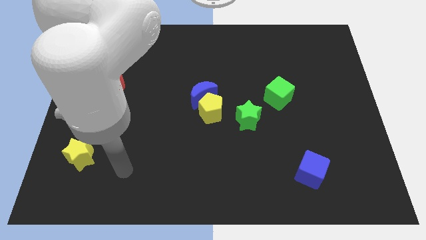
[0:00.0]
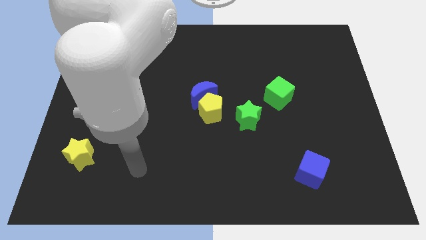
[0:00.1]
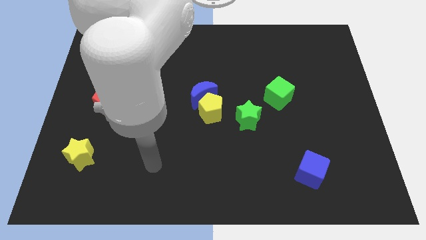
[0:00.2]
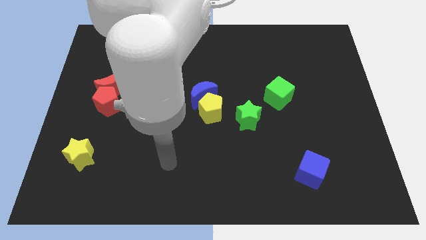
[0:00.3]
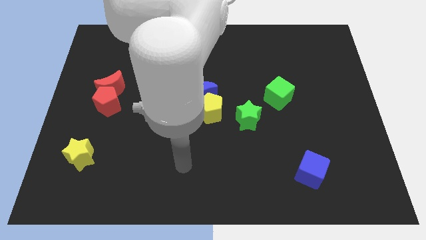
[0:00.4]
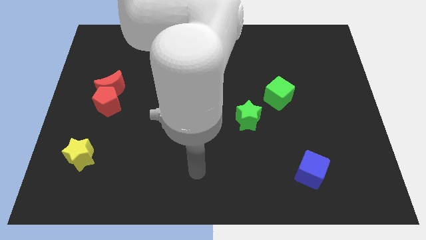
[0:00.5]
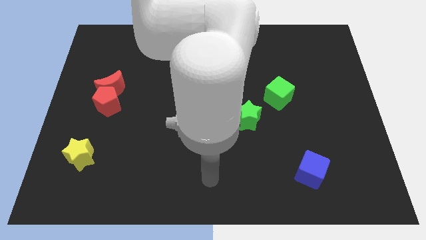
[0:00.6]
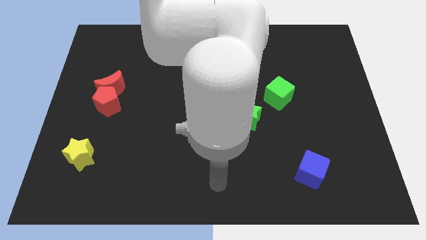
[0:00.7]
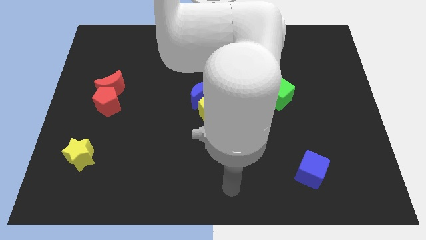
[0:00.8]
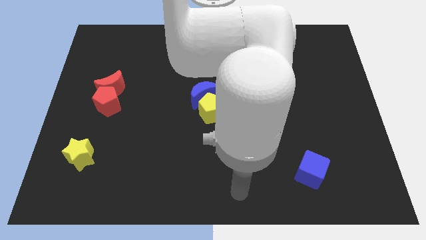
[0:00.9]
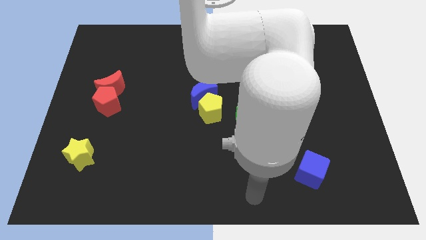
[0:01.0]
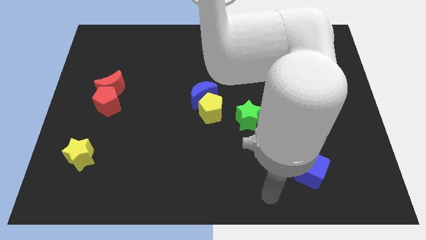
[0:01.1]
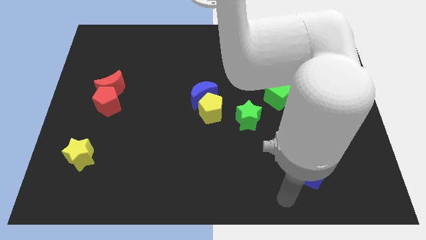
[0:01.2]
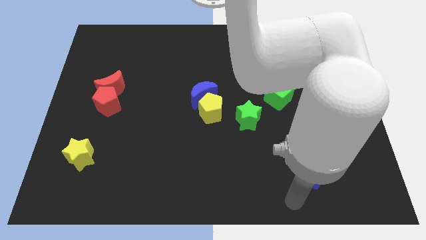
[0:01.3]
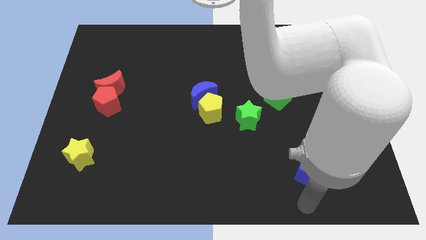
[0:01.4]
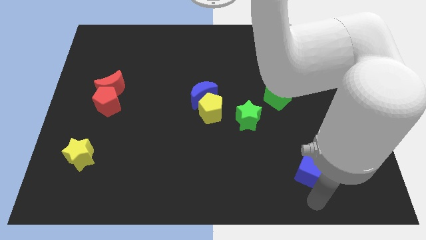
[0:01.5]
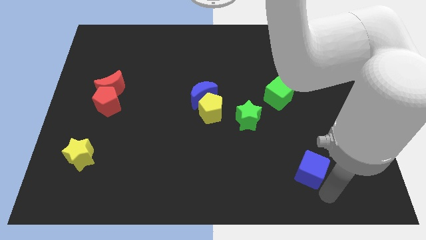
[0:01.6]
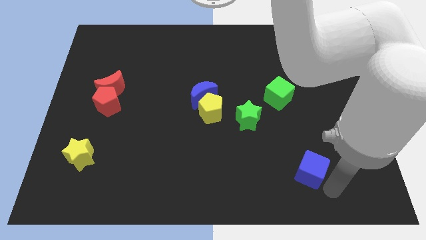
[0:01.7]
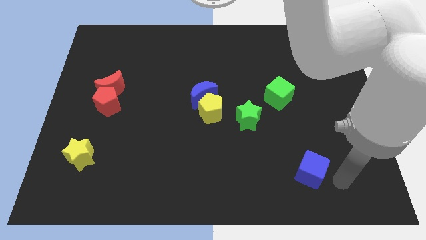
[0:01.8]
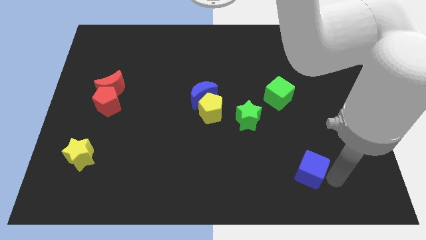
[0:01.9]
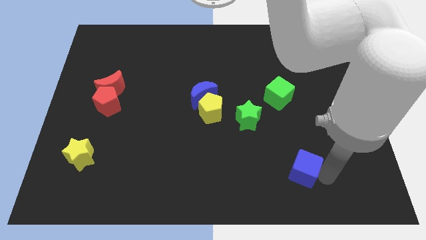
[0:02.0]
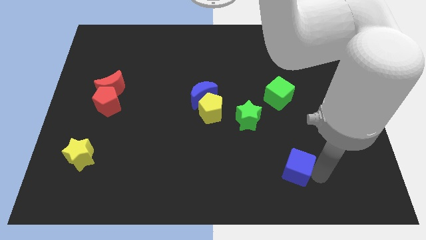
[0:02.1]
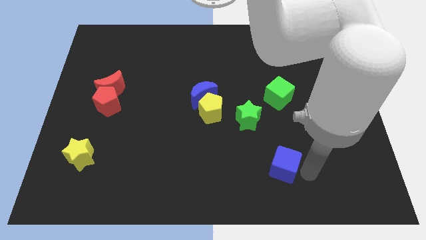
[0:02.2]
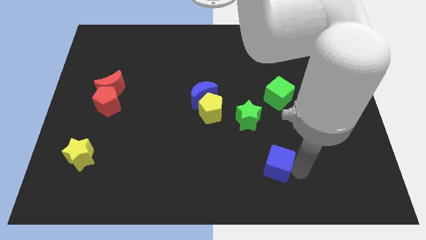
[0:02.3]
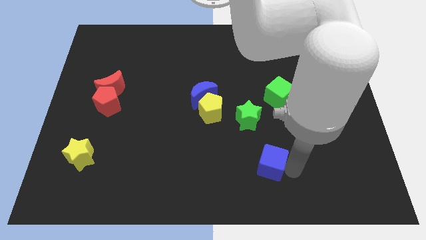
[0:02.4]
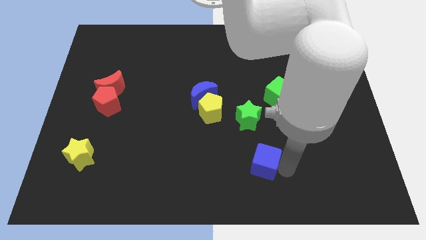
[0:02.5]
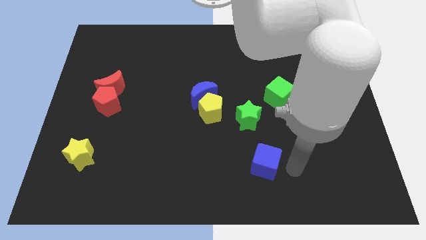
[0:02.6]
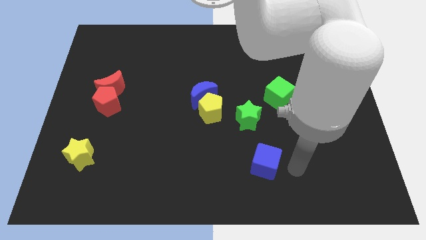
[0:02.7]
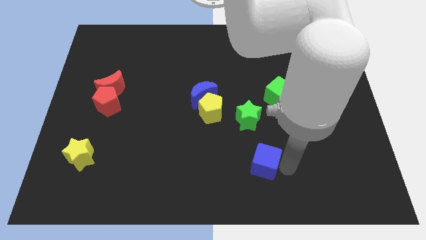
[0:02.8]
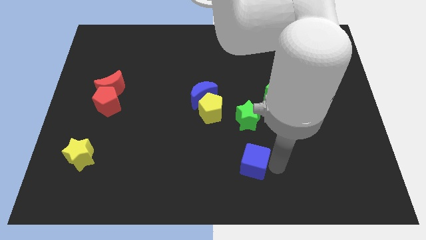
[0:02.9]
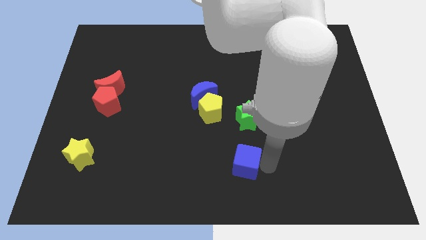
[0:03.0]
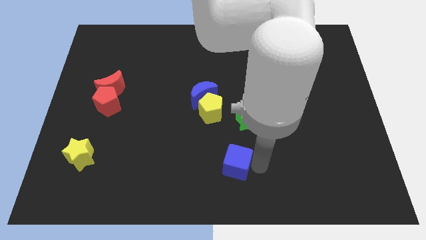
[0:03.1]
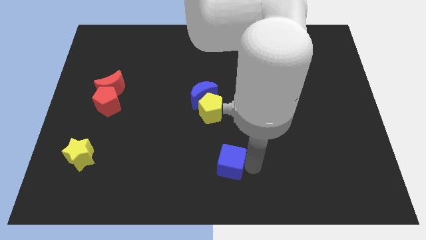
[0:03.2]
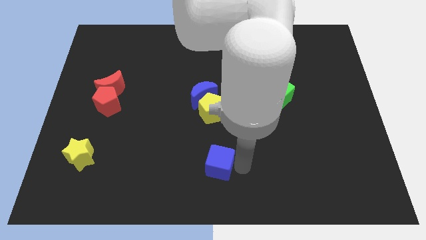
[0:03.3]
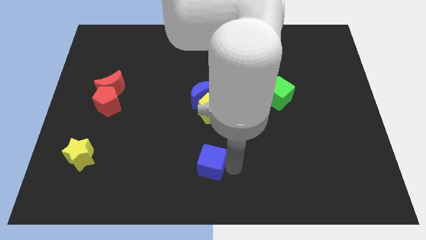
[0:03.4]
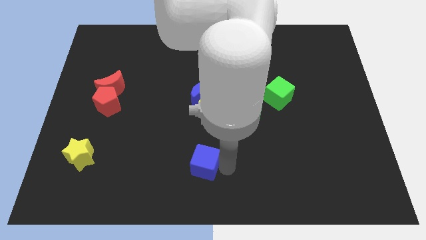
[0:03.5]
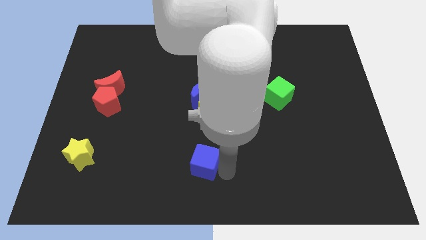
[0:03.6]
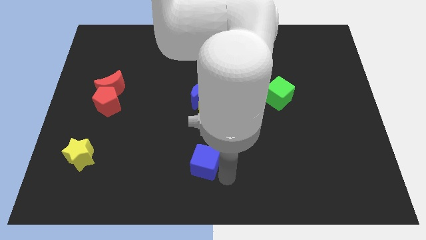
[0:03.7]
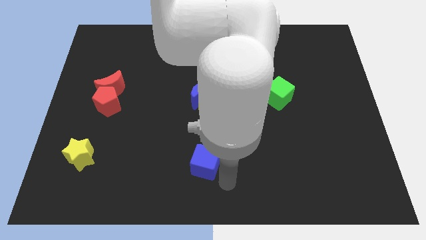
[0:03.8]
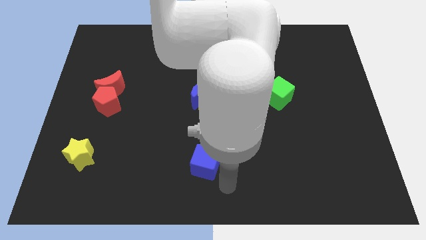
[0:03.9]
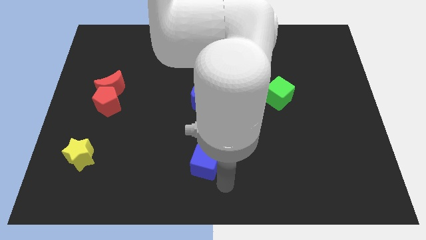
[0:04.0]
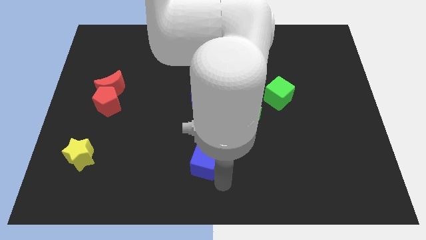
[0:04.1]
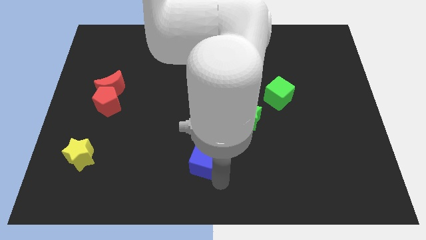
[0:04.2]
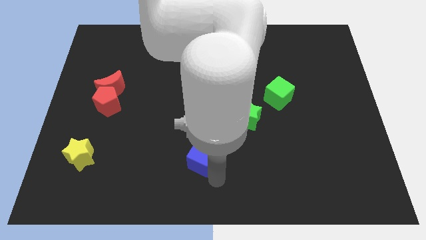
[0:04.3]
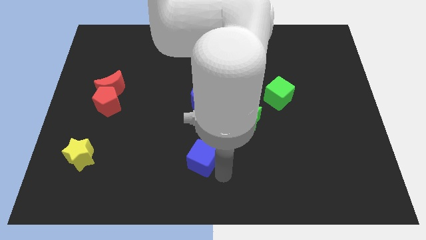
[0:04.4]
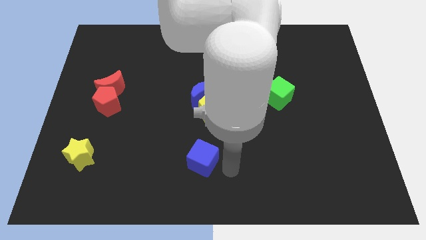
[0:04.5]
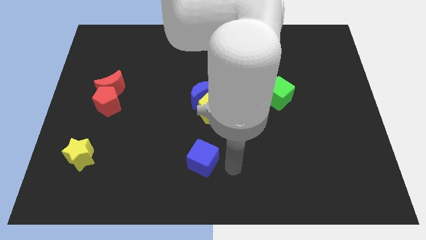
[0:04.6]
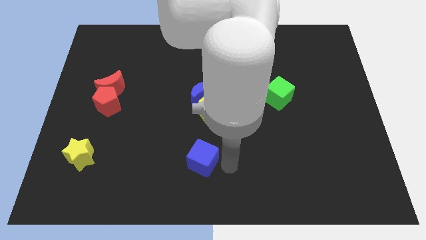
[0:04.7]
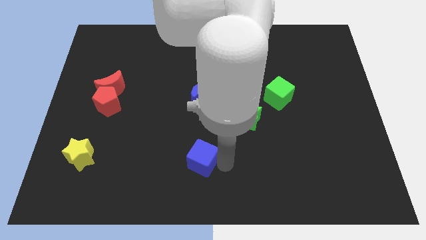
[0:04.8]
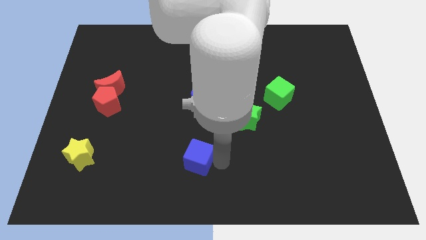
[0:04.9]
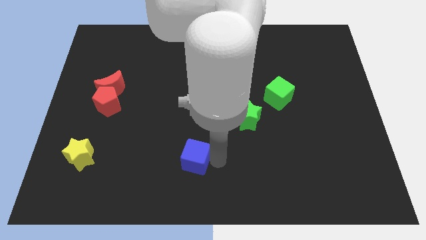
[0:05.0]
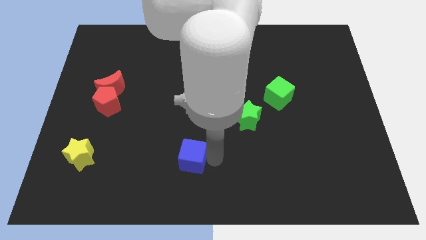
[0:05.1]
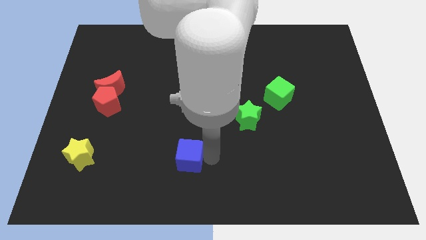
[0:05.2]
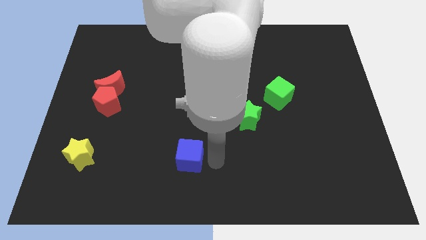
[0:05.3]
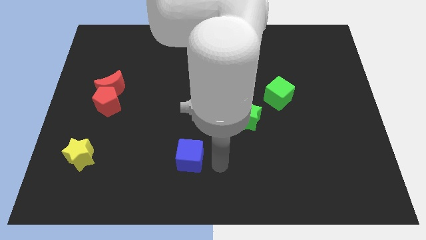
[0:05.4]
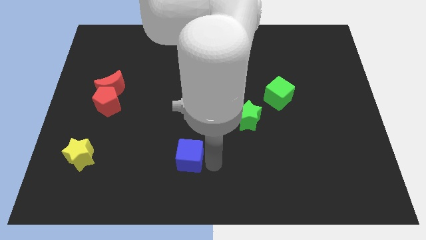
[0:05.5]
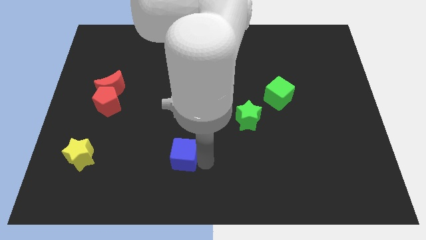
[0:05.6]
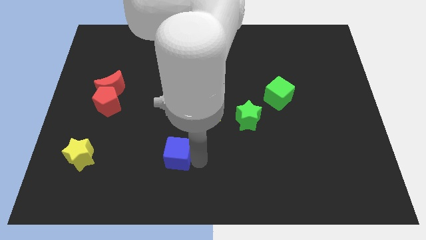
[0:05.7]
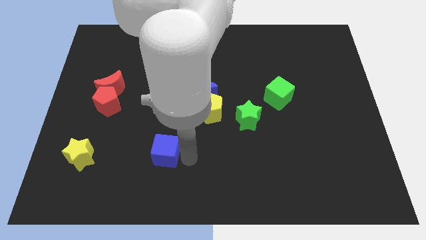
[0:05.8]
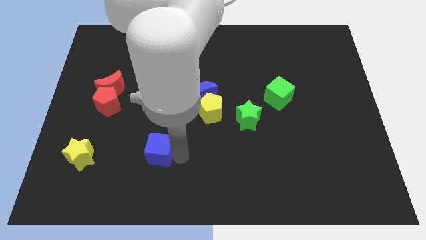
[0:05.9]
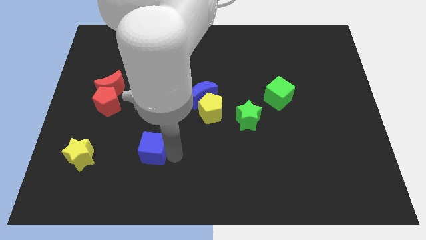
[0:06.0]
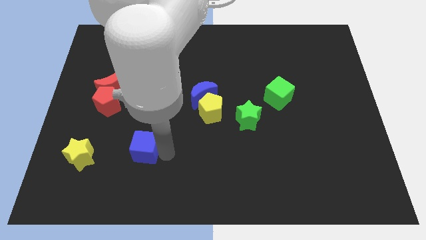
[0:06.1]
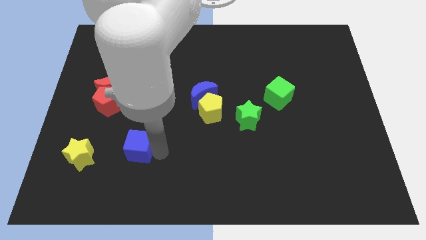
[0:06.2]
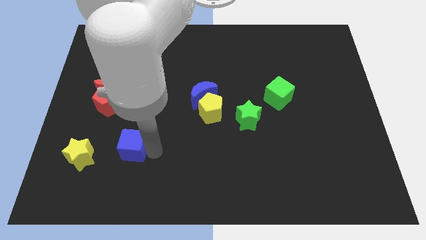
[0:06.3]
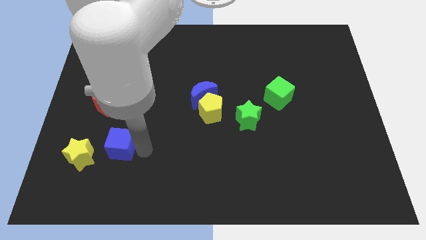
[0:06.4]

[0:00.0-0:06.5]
move the blue cube below the red pentagon
